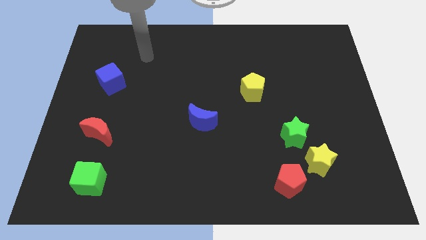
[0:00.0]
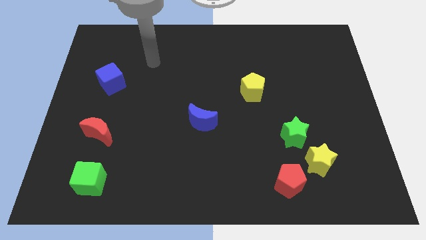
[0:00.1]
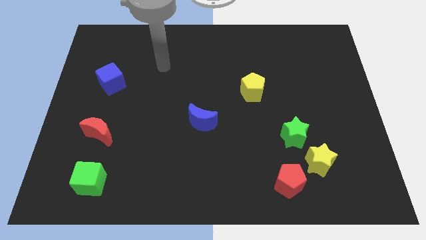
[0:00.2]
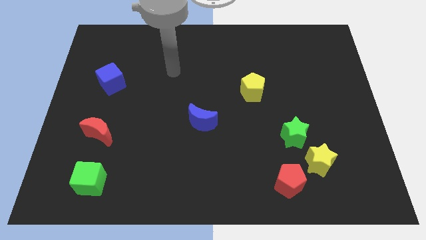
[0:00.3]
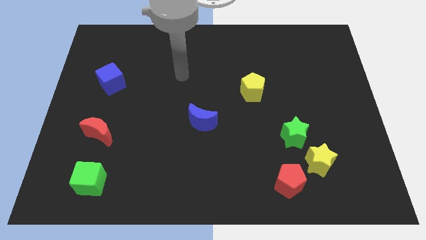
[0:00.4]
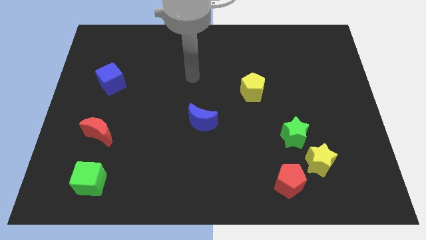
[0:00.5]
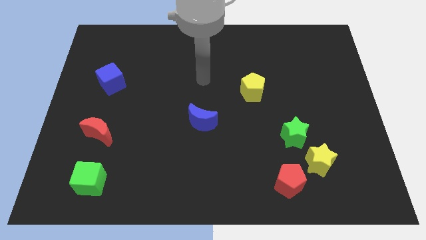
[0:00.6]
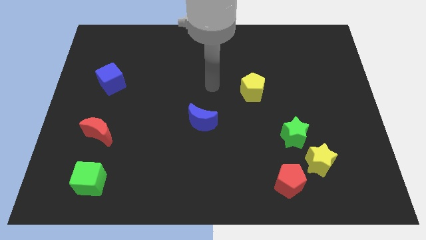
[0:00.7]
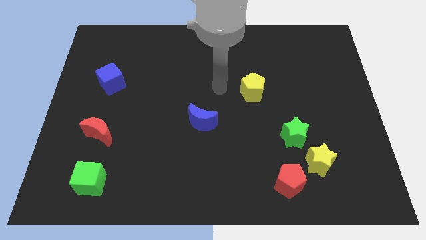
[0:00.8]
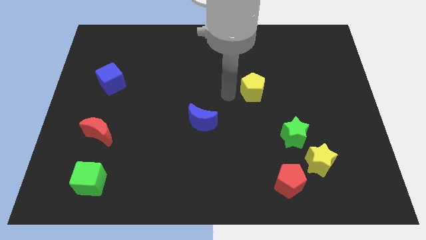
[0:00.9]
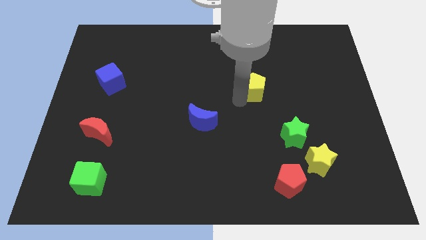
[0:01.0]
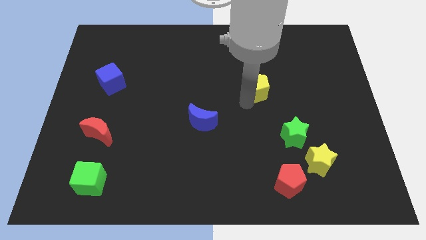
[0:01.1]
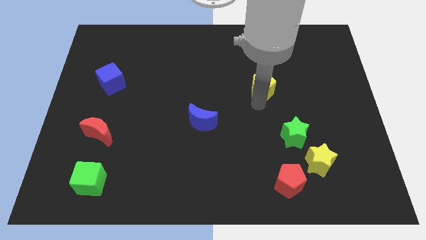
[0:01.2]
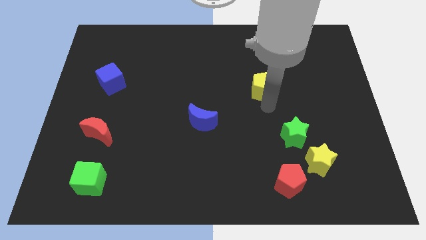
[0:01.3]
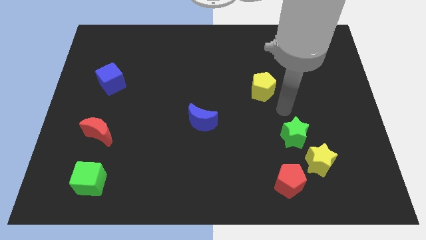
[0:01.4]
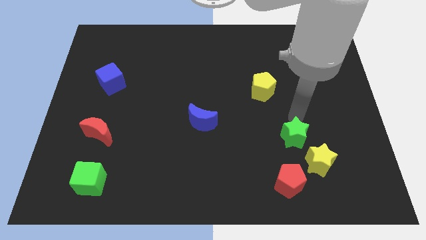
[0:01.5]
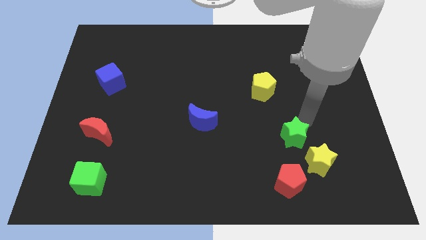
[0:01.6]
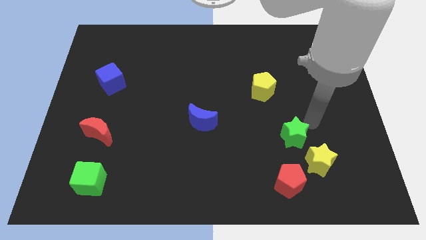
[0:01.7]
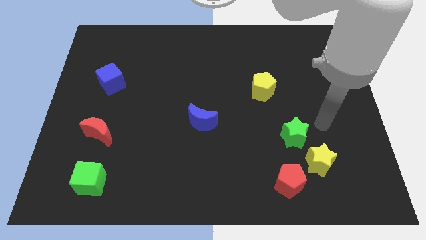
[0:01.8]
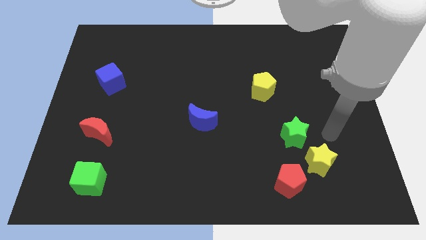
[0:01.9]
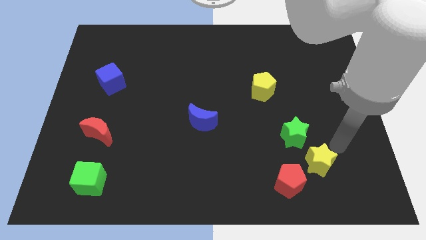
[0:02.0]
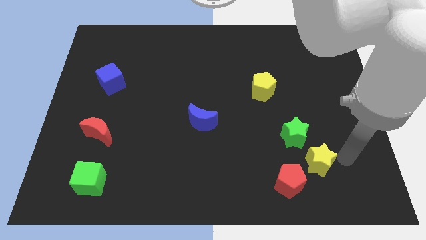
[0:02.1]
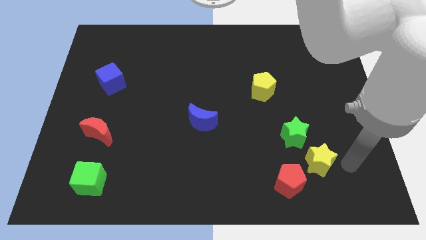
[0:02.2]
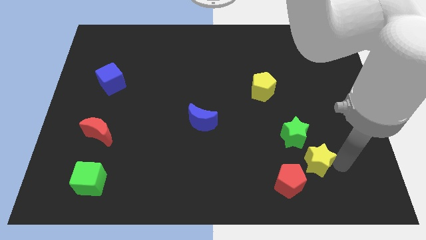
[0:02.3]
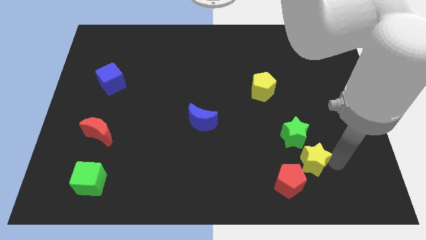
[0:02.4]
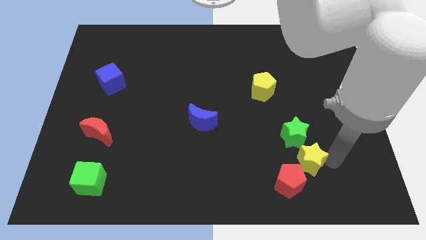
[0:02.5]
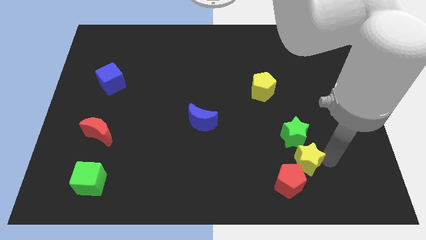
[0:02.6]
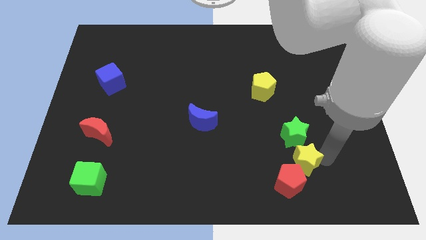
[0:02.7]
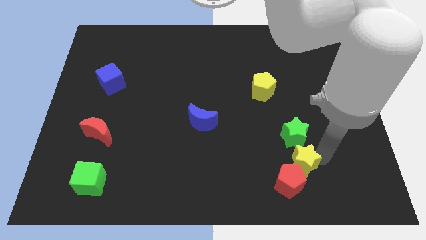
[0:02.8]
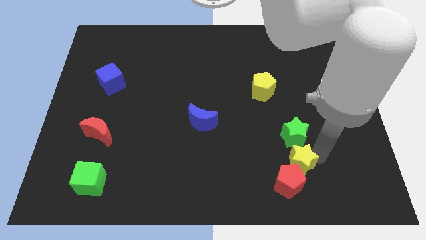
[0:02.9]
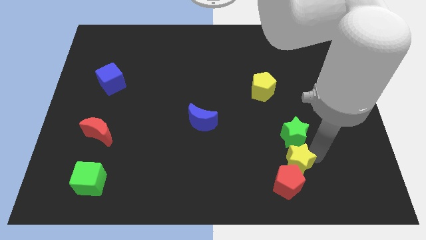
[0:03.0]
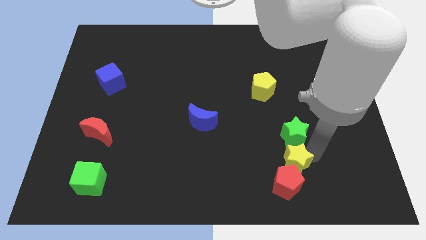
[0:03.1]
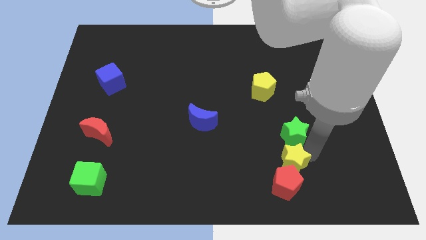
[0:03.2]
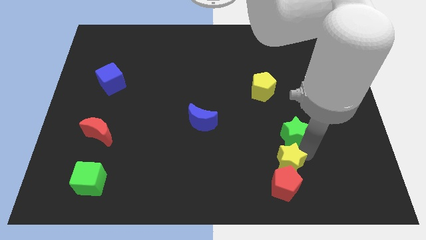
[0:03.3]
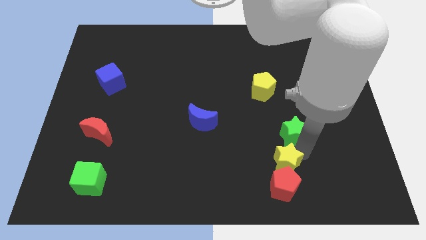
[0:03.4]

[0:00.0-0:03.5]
push the yellow star slightly to the left

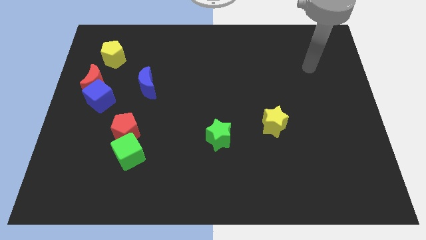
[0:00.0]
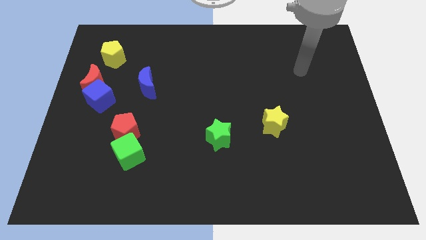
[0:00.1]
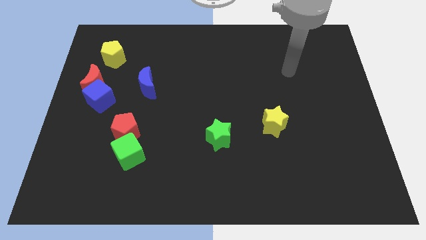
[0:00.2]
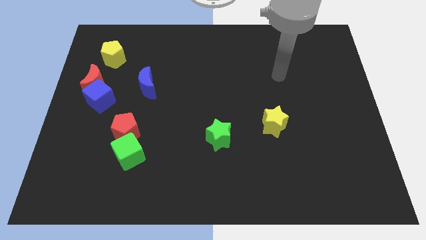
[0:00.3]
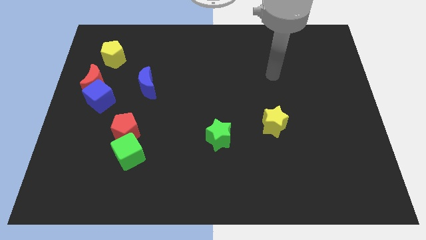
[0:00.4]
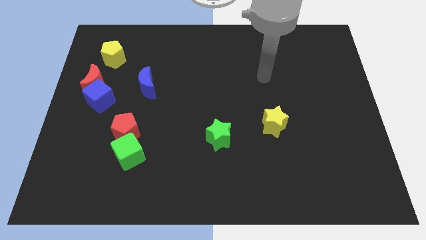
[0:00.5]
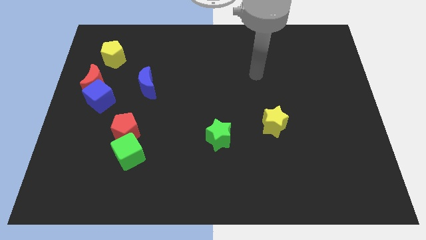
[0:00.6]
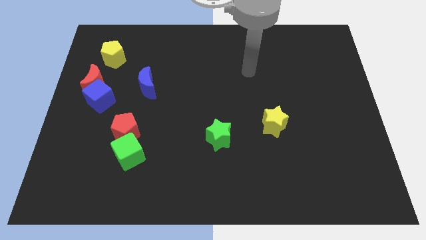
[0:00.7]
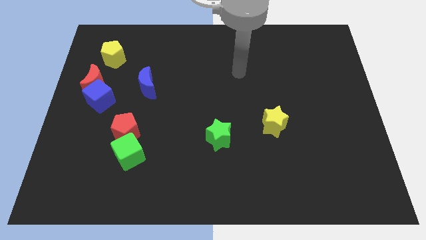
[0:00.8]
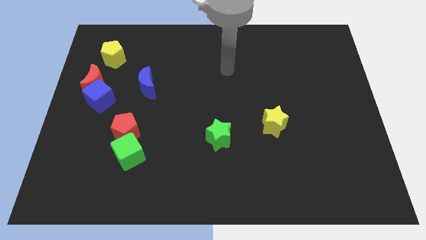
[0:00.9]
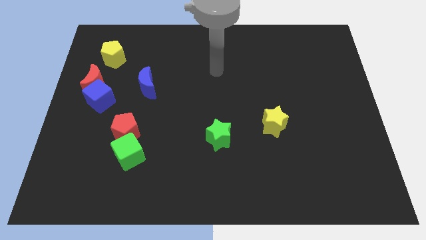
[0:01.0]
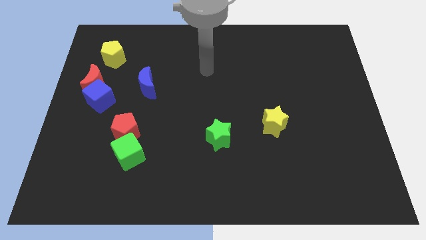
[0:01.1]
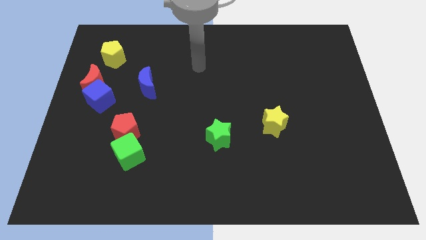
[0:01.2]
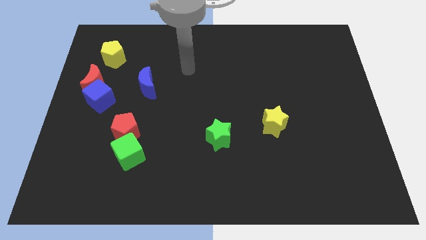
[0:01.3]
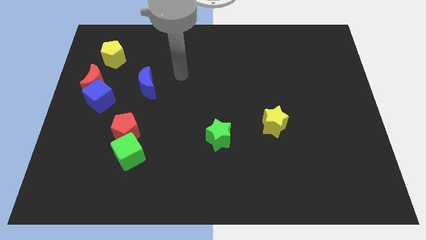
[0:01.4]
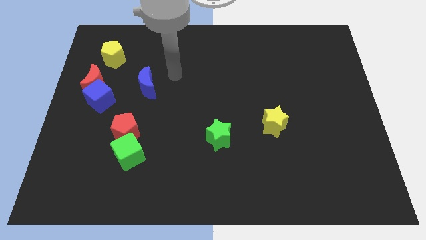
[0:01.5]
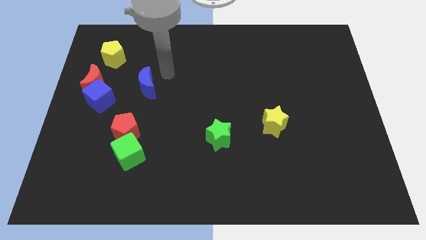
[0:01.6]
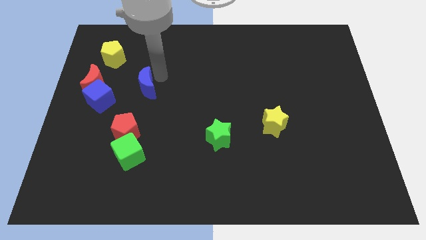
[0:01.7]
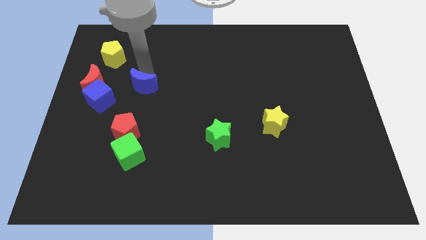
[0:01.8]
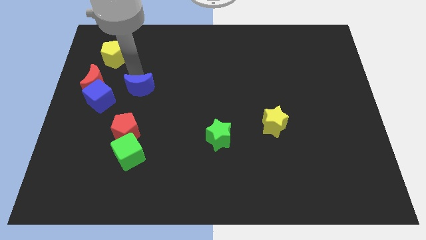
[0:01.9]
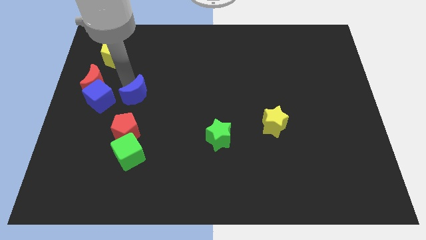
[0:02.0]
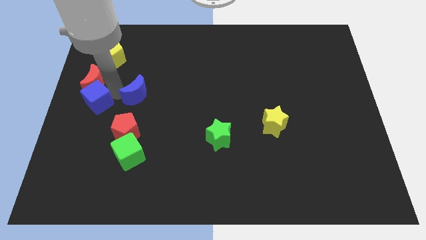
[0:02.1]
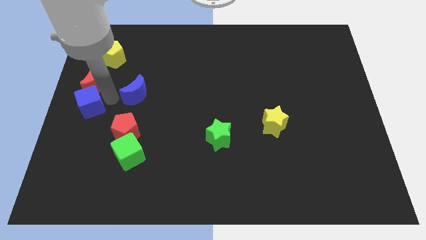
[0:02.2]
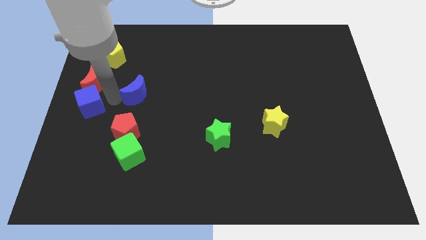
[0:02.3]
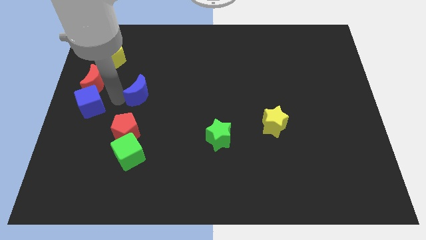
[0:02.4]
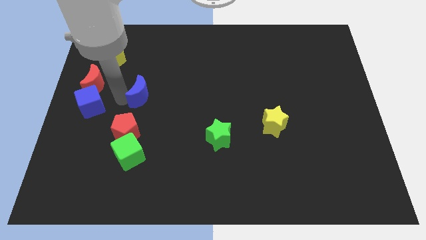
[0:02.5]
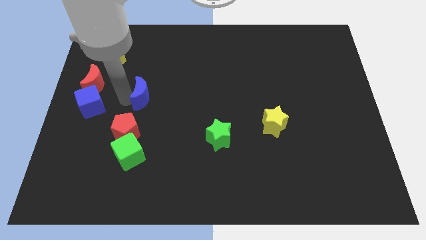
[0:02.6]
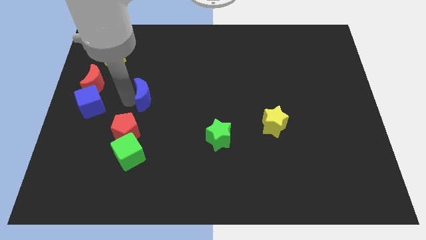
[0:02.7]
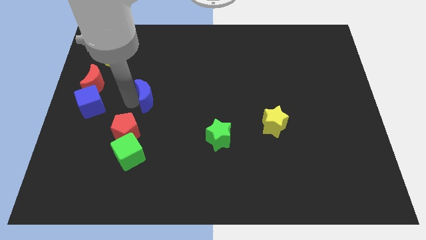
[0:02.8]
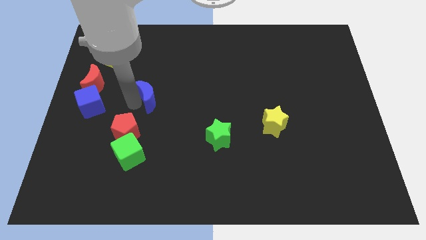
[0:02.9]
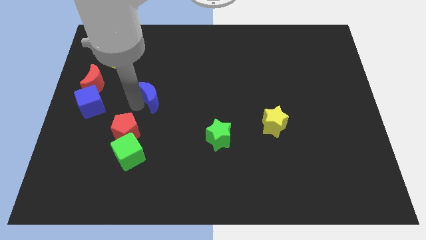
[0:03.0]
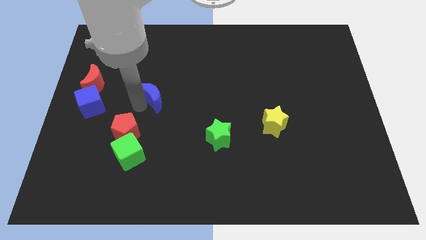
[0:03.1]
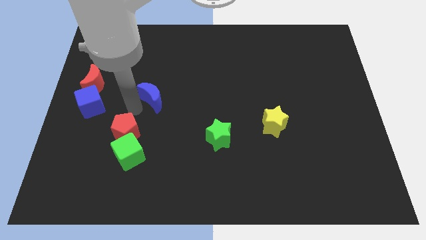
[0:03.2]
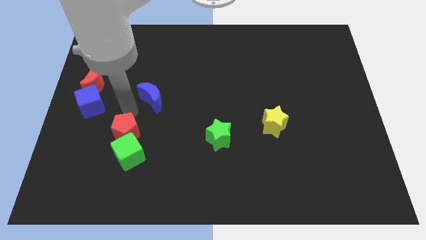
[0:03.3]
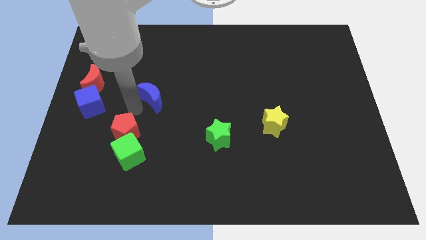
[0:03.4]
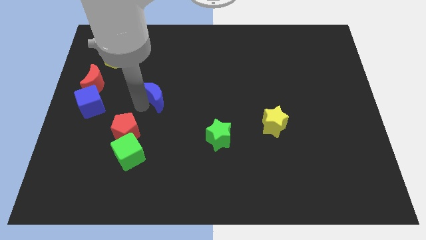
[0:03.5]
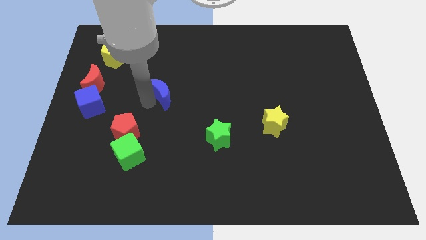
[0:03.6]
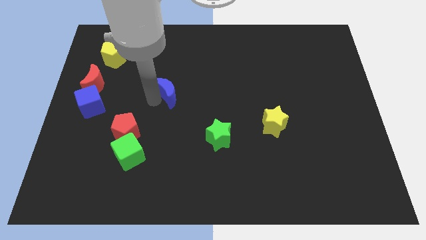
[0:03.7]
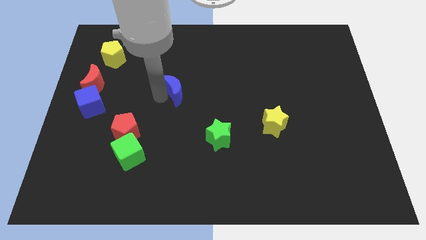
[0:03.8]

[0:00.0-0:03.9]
move the blue moon to the right a little

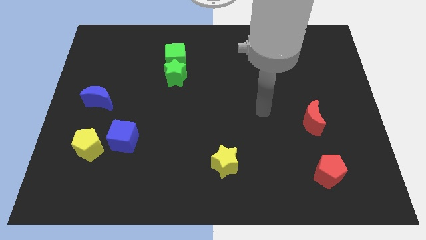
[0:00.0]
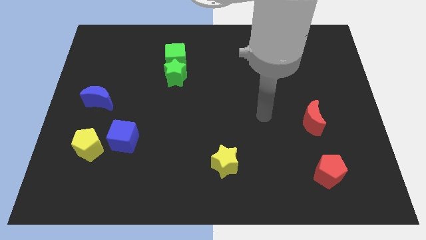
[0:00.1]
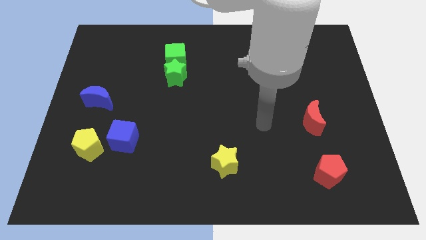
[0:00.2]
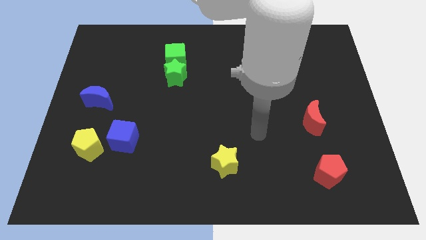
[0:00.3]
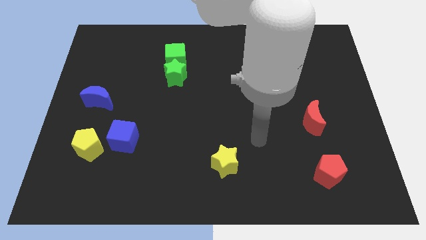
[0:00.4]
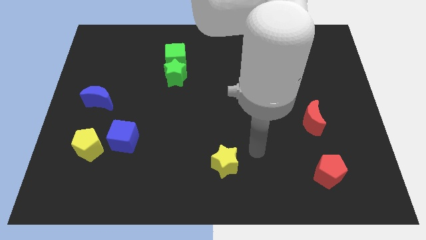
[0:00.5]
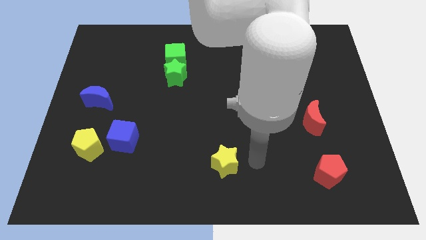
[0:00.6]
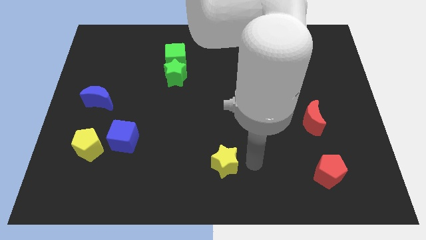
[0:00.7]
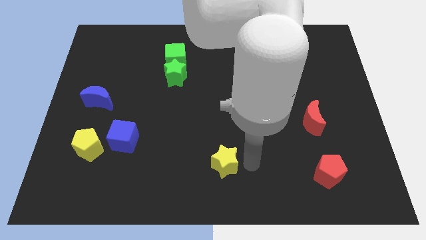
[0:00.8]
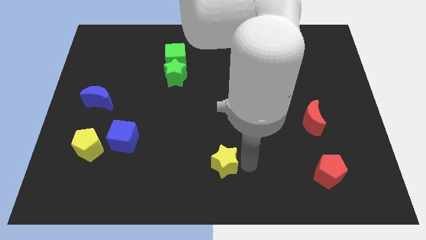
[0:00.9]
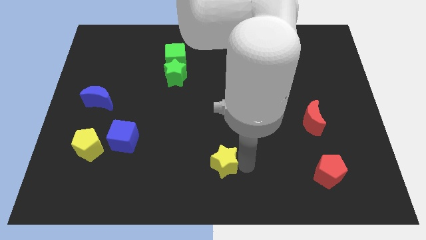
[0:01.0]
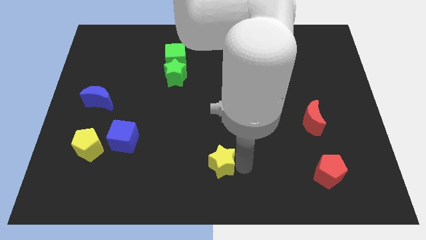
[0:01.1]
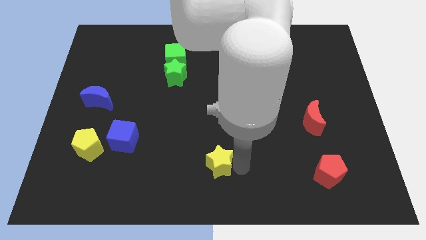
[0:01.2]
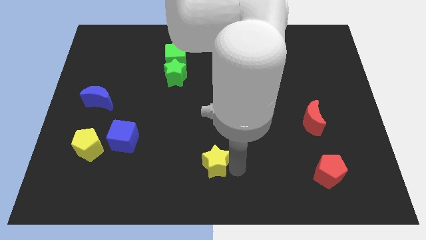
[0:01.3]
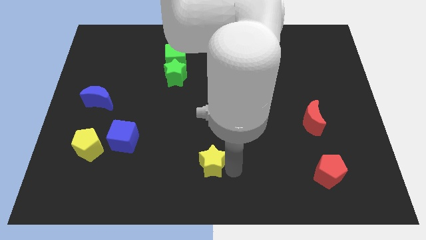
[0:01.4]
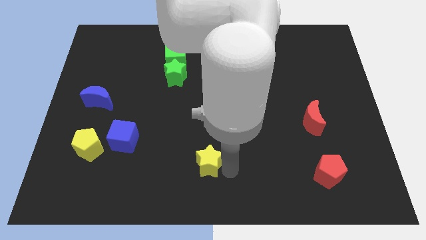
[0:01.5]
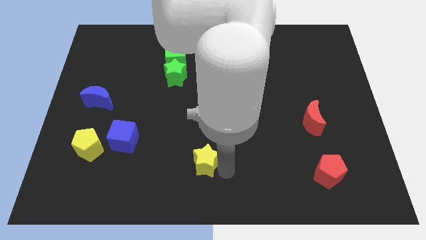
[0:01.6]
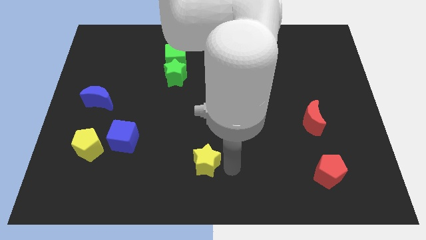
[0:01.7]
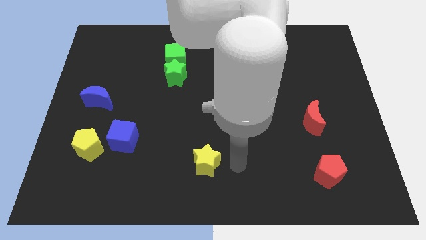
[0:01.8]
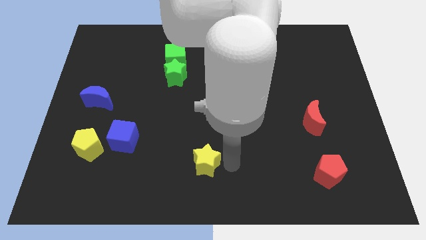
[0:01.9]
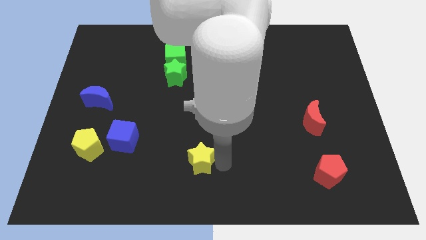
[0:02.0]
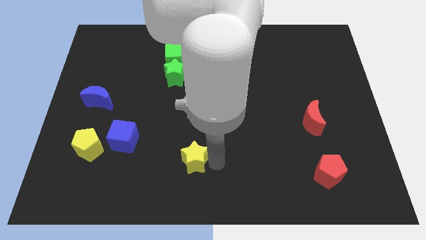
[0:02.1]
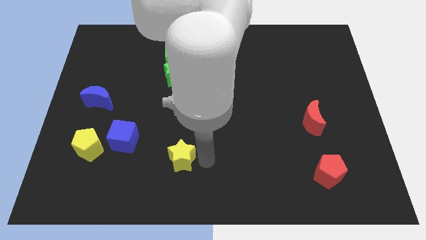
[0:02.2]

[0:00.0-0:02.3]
slightly push the yellow star left
